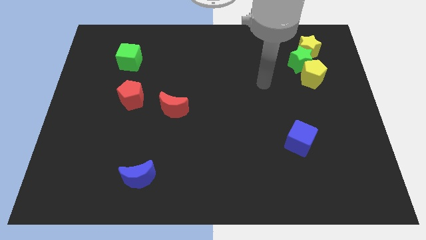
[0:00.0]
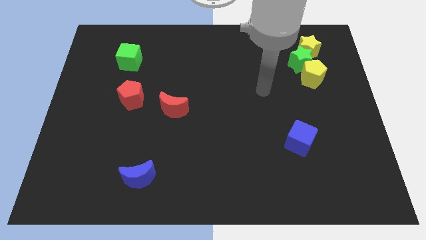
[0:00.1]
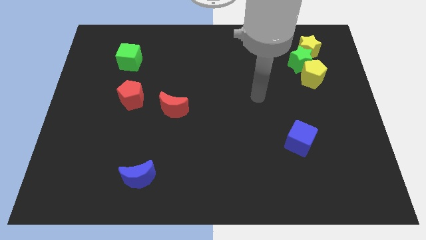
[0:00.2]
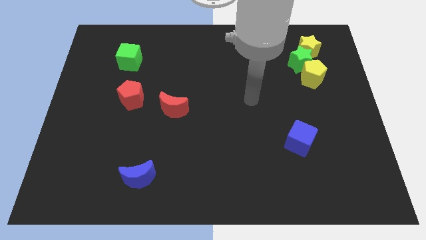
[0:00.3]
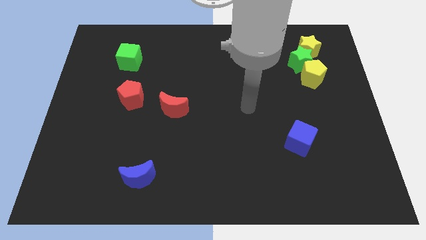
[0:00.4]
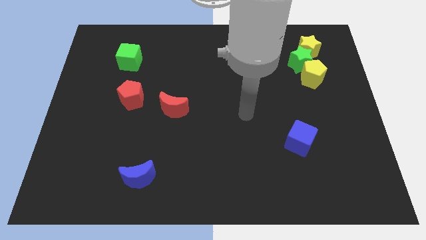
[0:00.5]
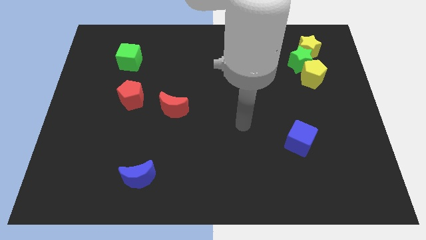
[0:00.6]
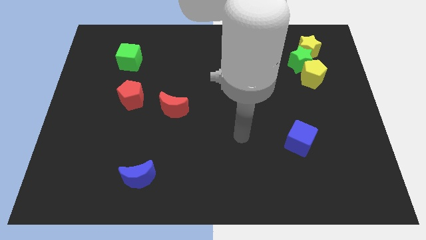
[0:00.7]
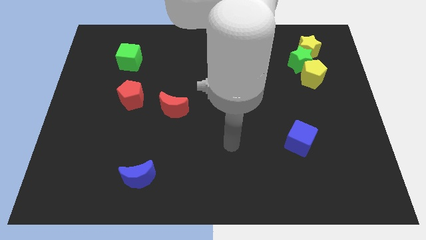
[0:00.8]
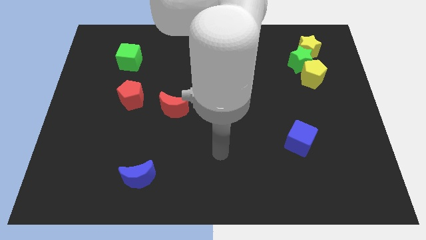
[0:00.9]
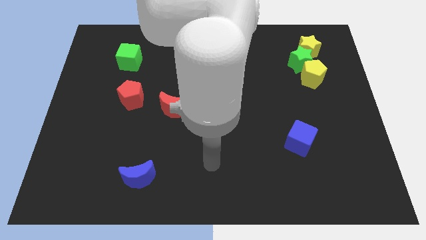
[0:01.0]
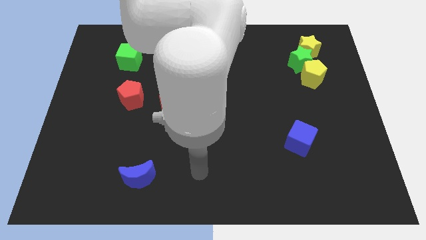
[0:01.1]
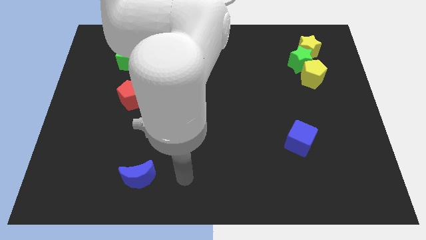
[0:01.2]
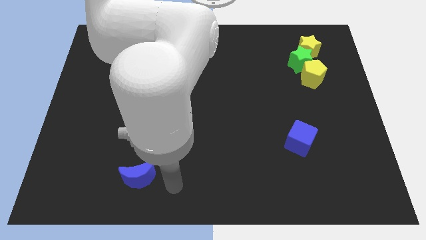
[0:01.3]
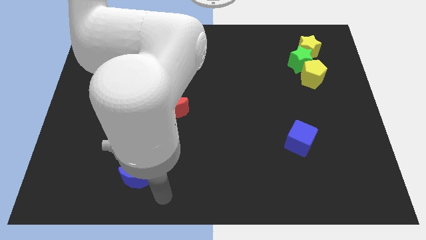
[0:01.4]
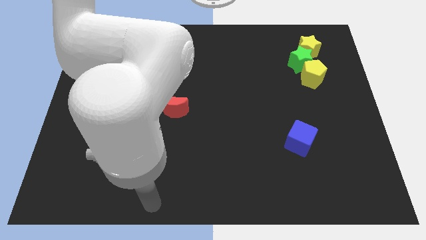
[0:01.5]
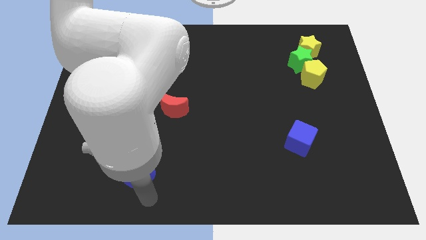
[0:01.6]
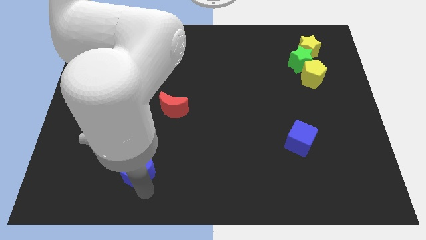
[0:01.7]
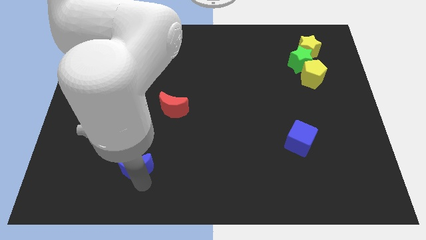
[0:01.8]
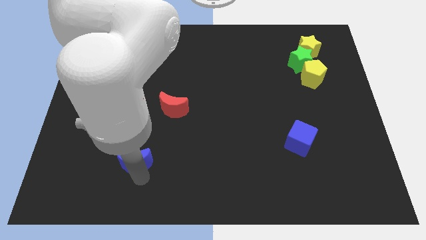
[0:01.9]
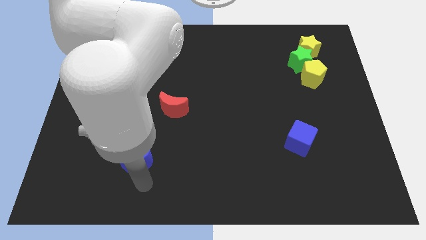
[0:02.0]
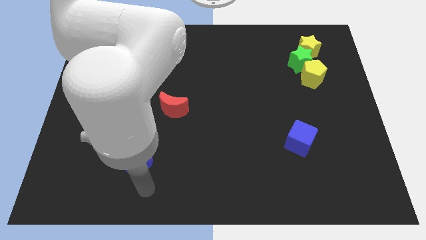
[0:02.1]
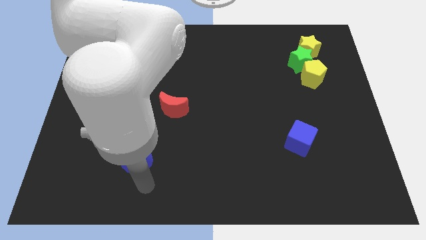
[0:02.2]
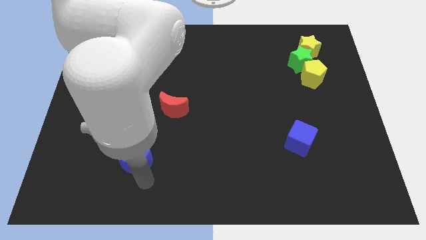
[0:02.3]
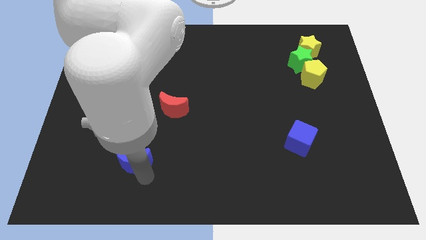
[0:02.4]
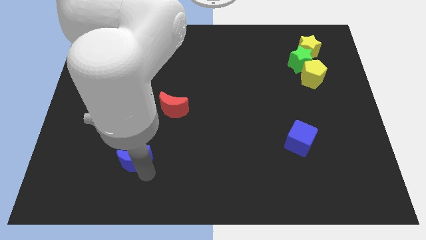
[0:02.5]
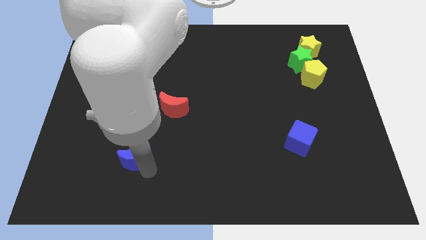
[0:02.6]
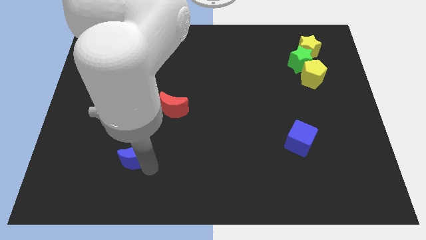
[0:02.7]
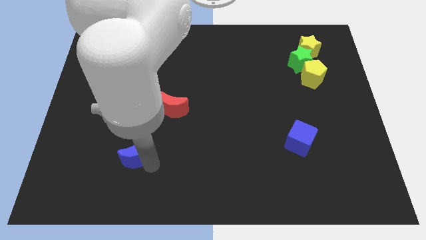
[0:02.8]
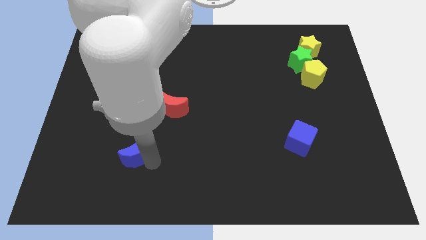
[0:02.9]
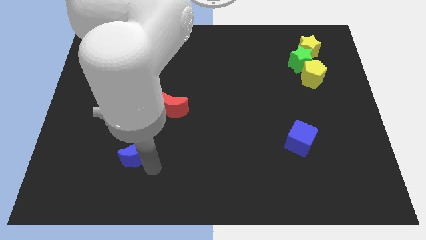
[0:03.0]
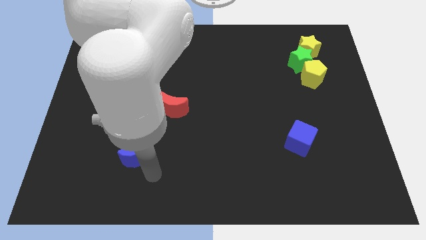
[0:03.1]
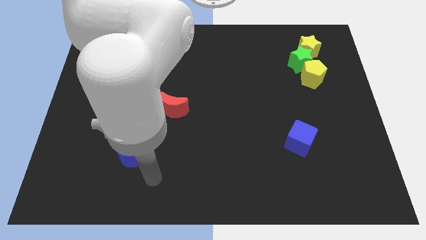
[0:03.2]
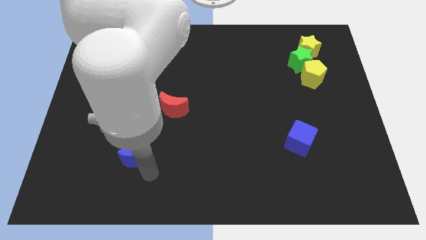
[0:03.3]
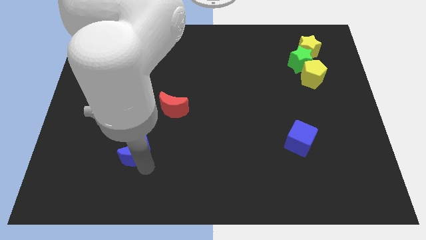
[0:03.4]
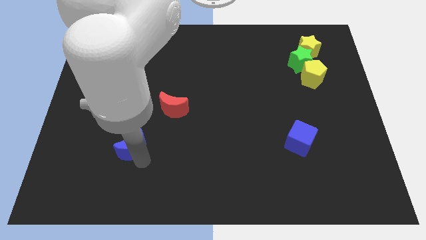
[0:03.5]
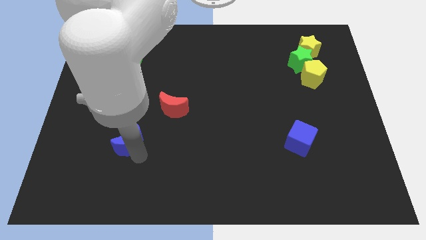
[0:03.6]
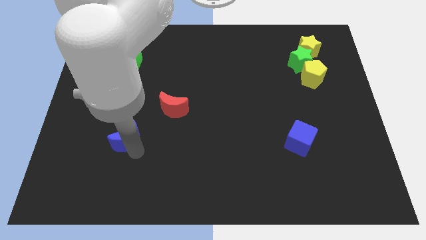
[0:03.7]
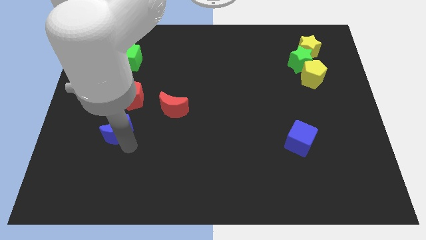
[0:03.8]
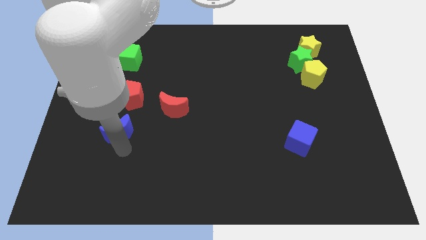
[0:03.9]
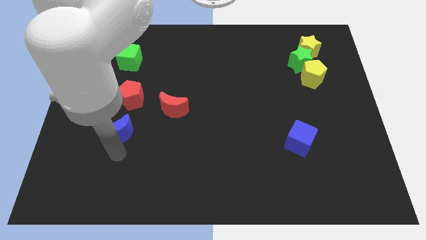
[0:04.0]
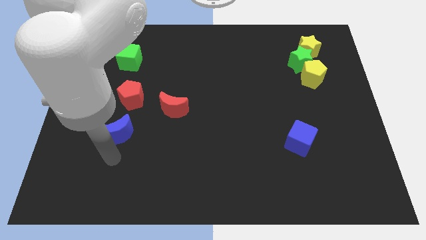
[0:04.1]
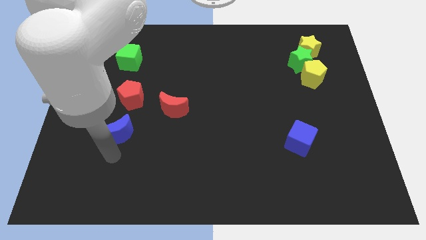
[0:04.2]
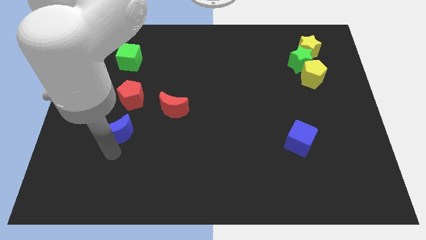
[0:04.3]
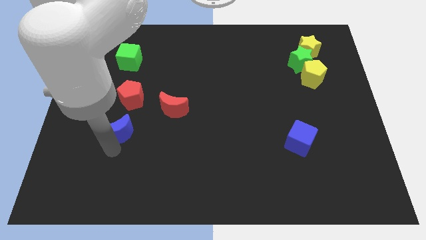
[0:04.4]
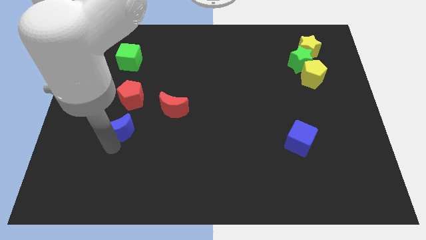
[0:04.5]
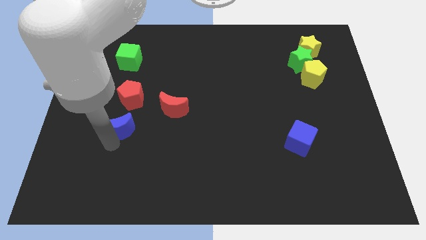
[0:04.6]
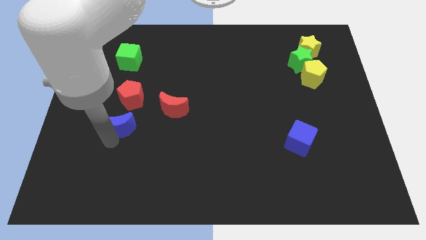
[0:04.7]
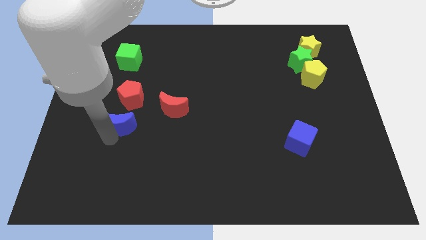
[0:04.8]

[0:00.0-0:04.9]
push the blue moon left of the red moon

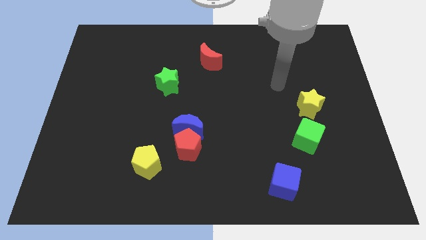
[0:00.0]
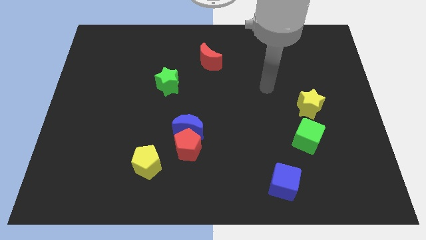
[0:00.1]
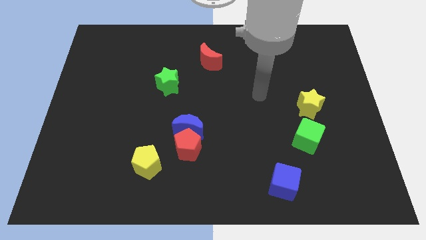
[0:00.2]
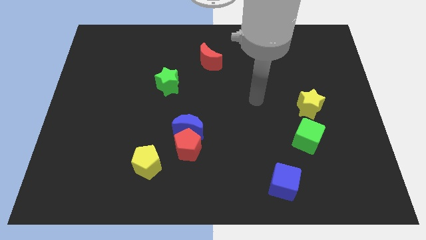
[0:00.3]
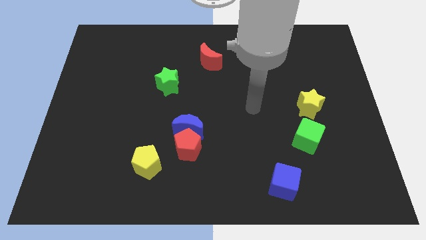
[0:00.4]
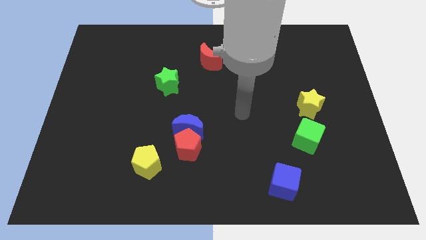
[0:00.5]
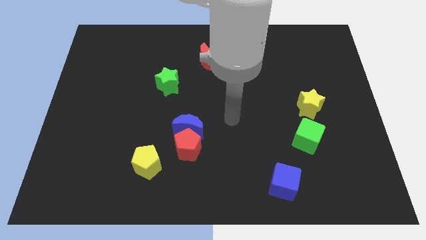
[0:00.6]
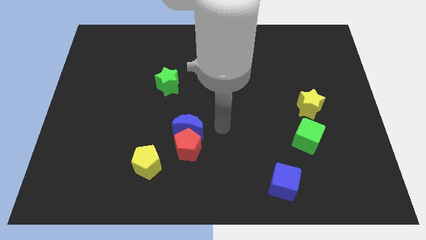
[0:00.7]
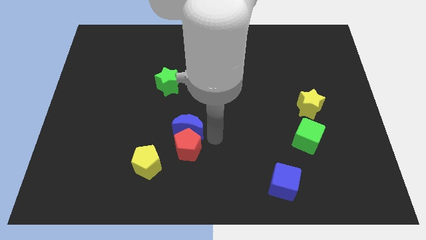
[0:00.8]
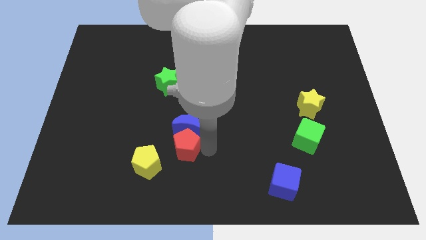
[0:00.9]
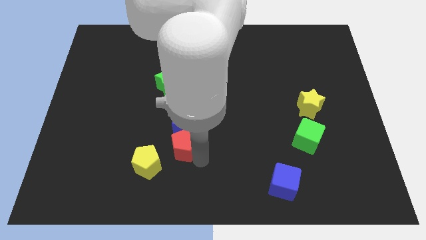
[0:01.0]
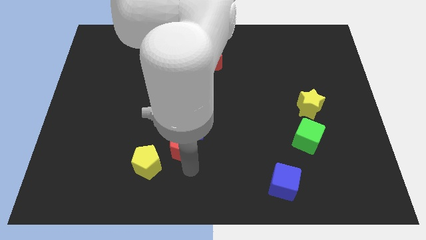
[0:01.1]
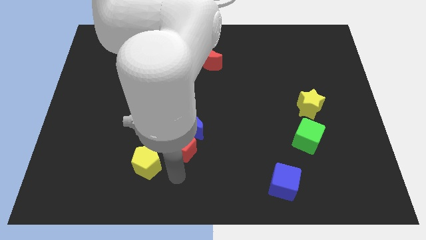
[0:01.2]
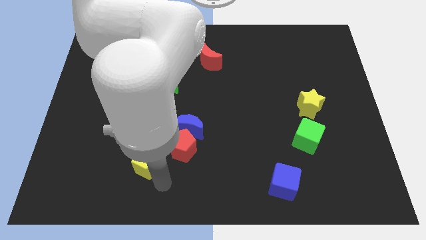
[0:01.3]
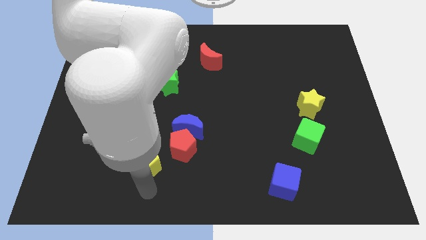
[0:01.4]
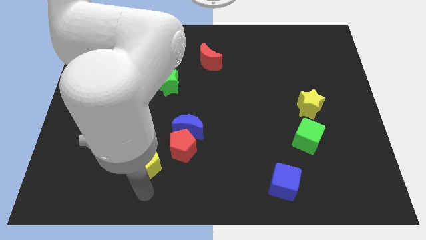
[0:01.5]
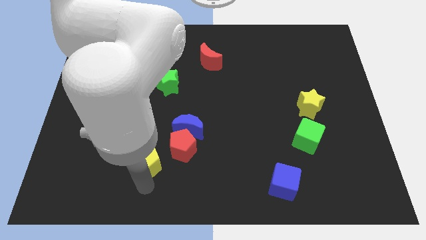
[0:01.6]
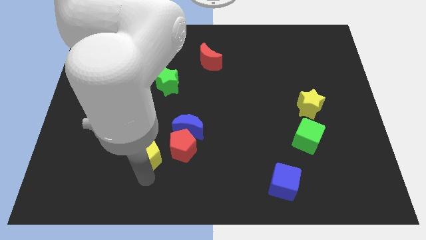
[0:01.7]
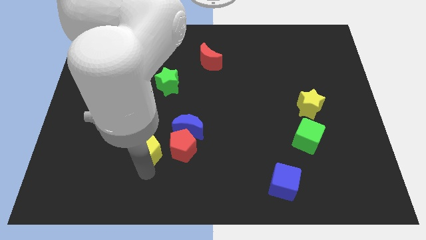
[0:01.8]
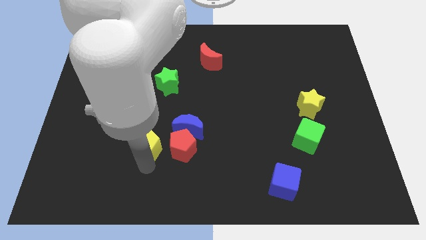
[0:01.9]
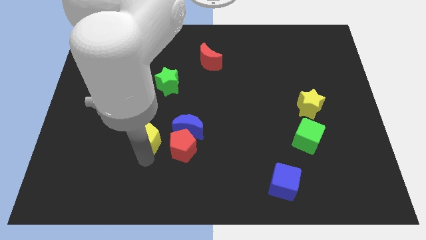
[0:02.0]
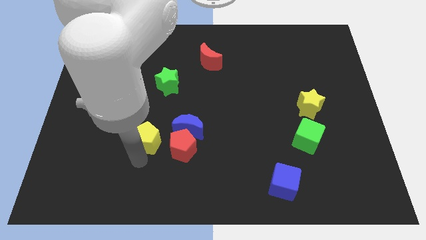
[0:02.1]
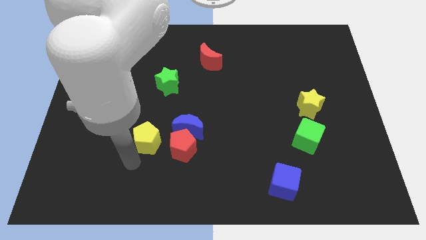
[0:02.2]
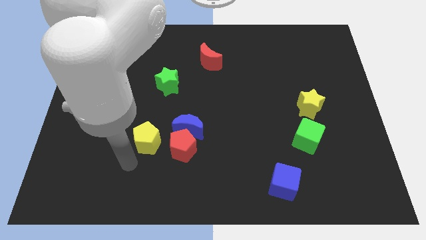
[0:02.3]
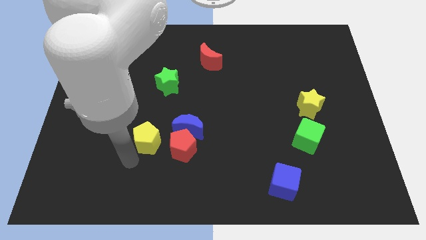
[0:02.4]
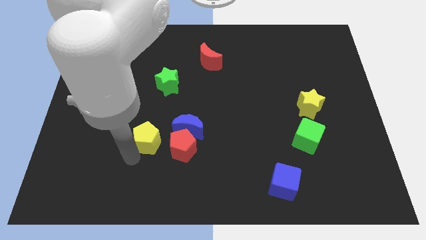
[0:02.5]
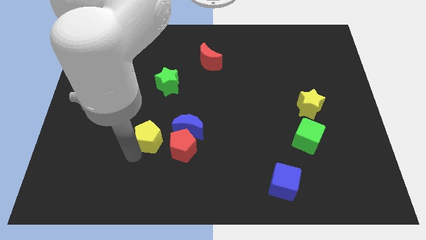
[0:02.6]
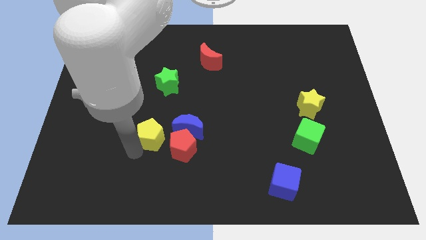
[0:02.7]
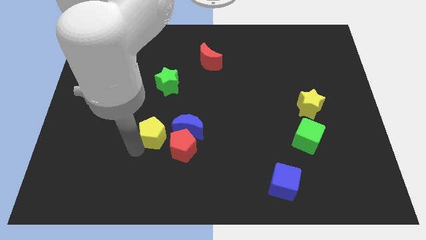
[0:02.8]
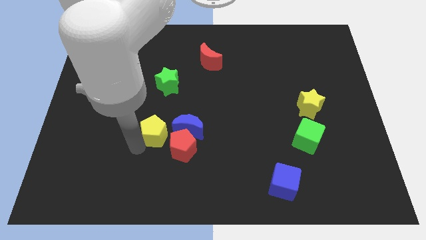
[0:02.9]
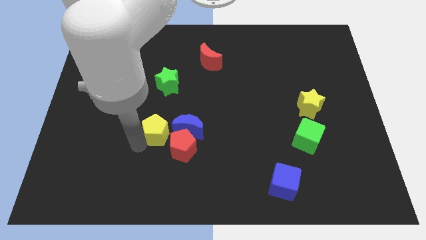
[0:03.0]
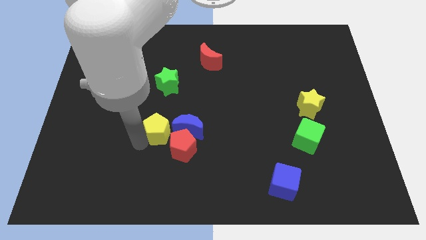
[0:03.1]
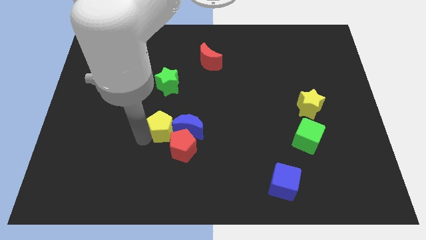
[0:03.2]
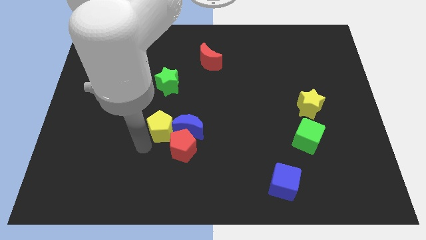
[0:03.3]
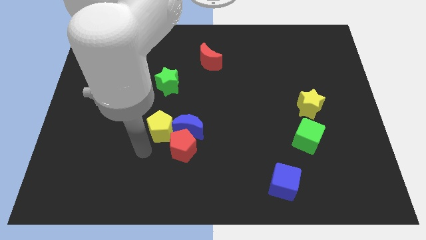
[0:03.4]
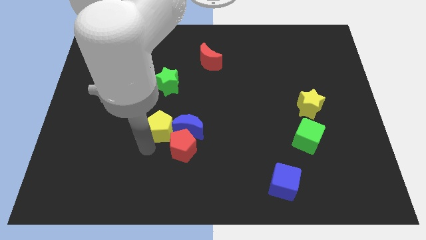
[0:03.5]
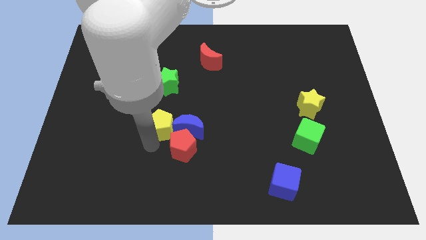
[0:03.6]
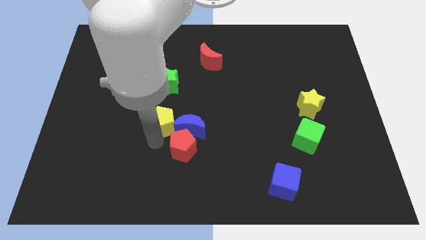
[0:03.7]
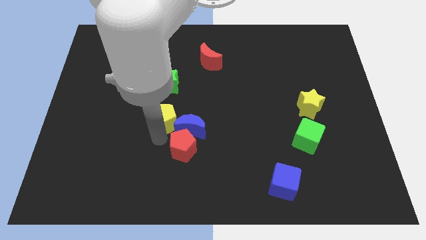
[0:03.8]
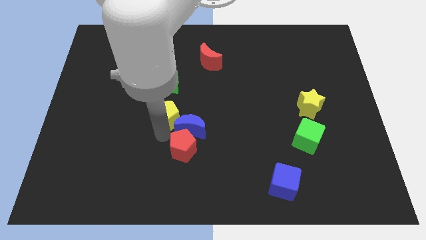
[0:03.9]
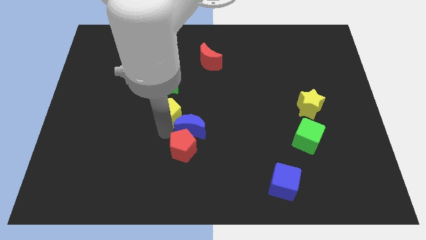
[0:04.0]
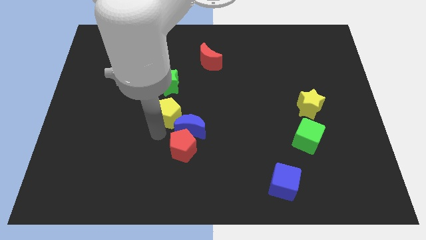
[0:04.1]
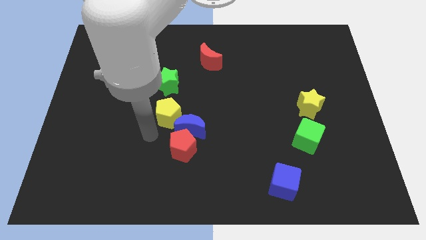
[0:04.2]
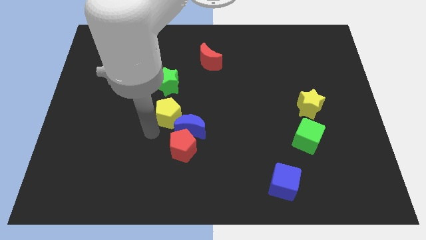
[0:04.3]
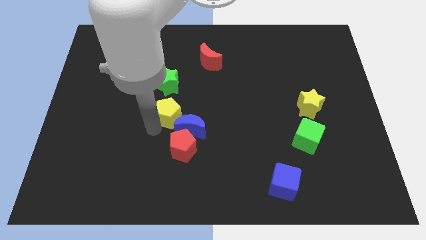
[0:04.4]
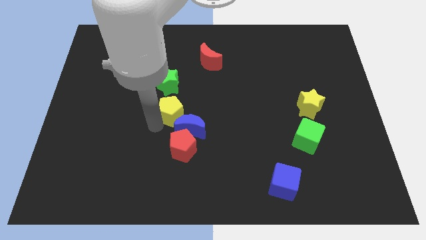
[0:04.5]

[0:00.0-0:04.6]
move the yellow pentagon to the top side of the blue moon
